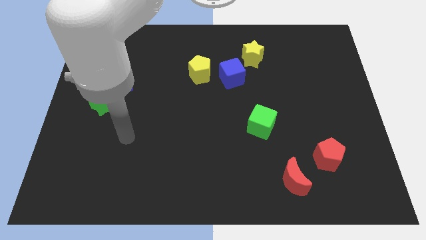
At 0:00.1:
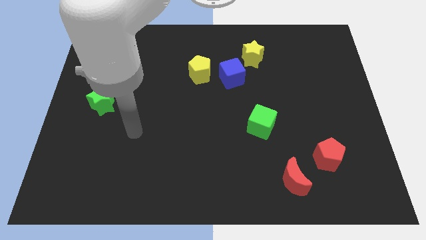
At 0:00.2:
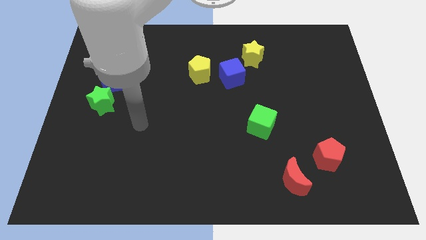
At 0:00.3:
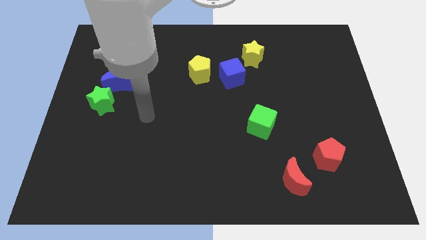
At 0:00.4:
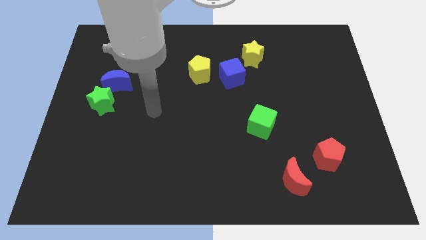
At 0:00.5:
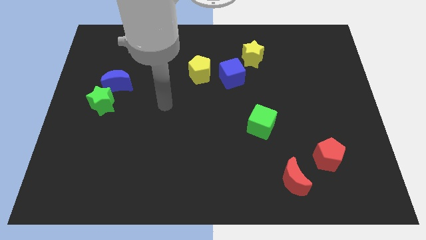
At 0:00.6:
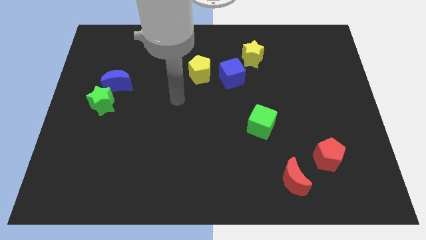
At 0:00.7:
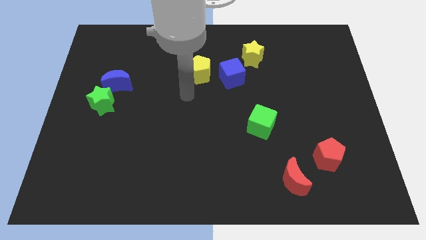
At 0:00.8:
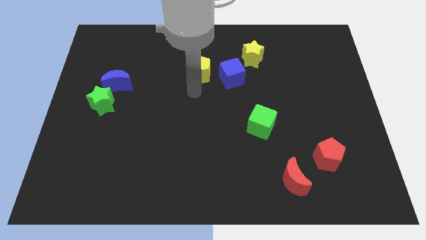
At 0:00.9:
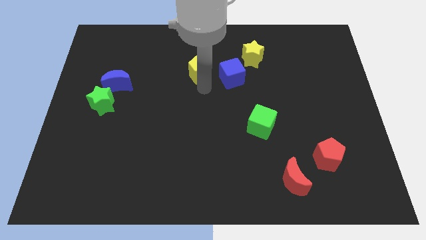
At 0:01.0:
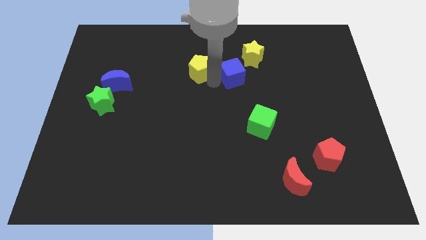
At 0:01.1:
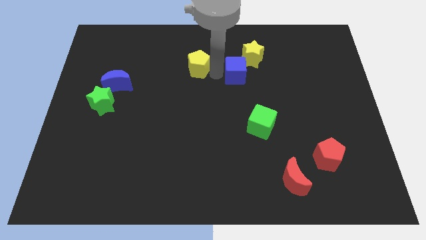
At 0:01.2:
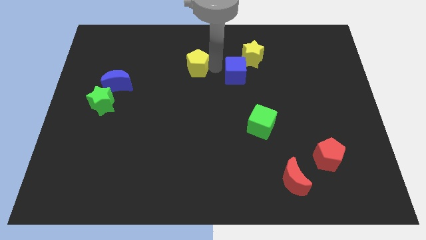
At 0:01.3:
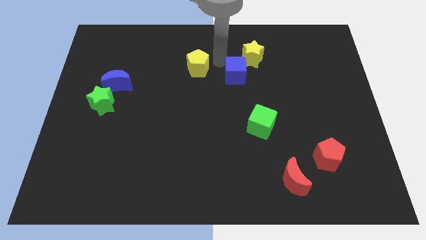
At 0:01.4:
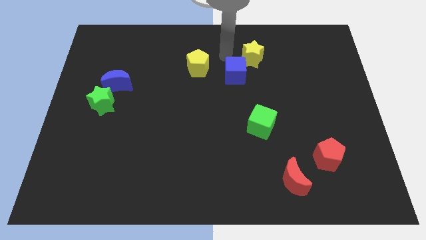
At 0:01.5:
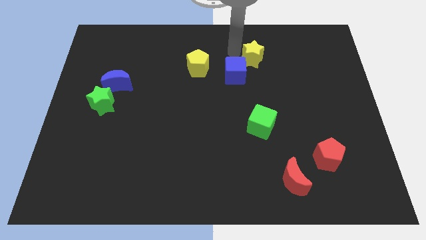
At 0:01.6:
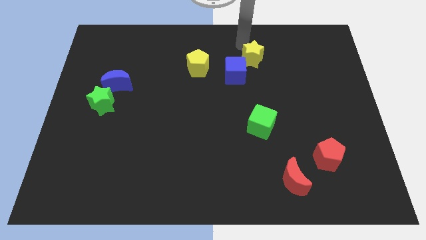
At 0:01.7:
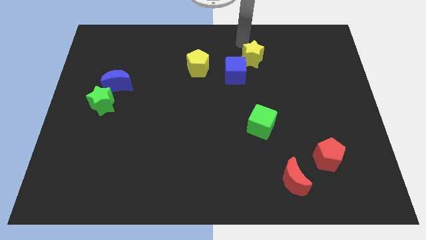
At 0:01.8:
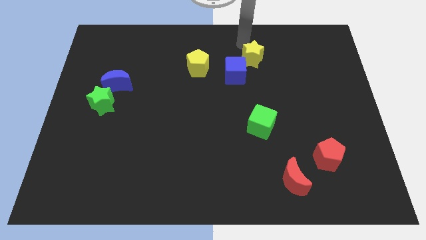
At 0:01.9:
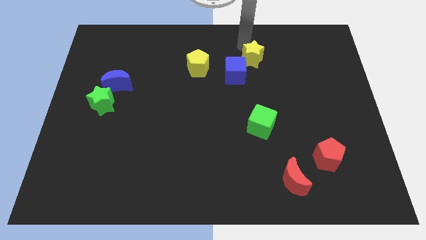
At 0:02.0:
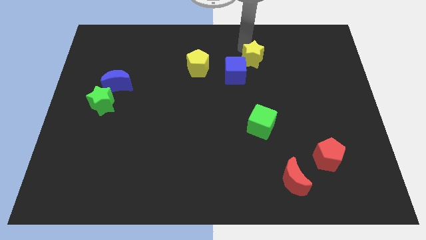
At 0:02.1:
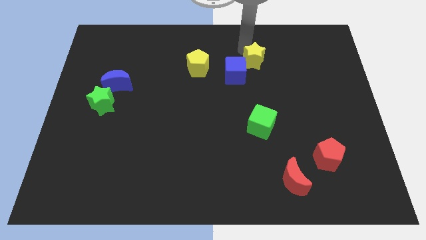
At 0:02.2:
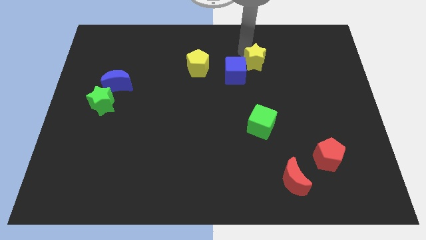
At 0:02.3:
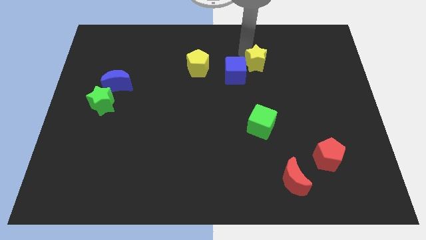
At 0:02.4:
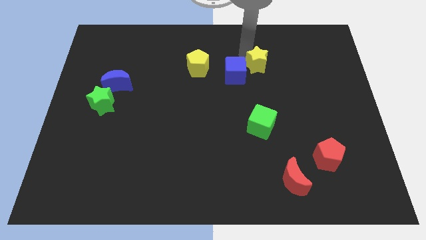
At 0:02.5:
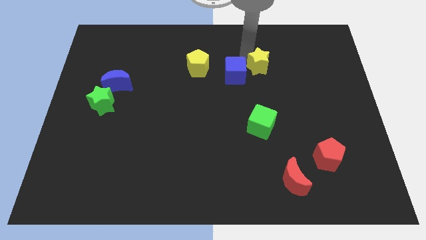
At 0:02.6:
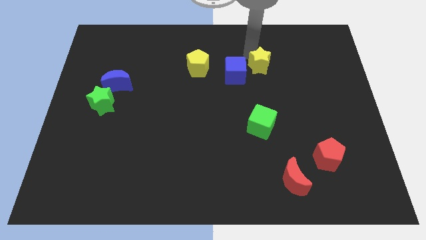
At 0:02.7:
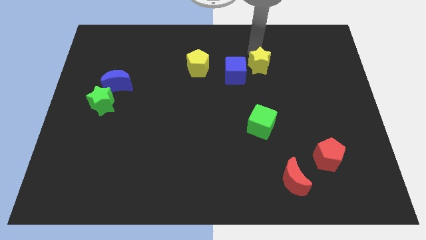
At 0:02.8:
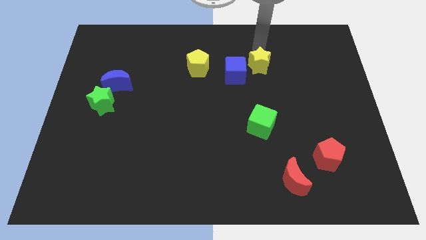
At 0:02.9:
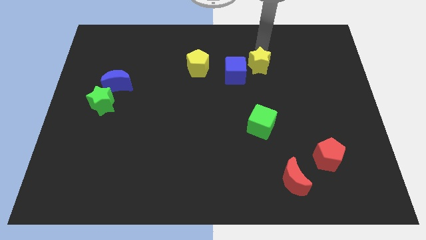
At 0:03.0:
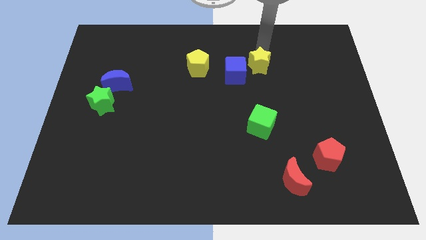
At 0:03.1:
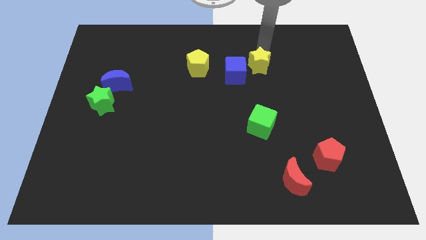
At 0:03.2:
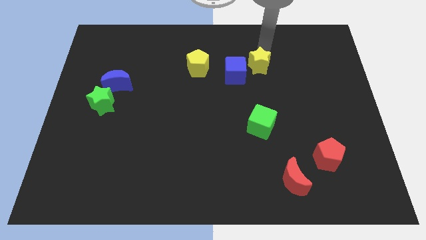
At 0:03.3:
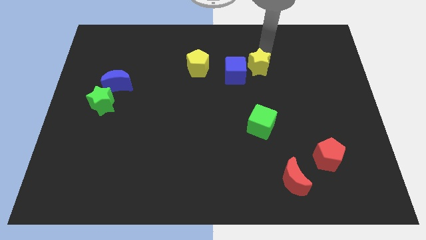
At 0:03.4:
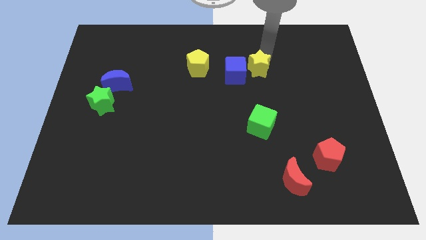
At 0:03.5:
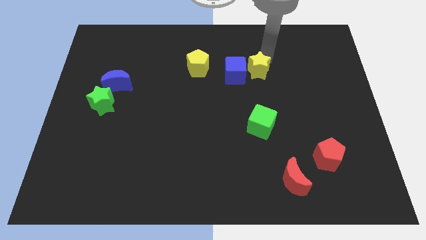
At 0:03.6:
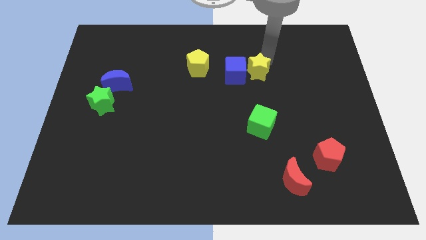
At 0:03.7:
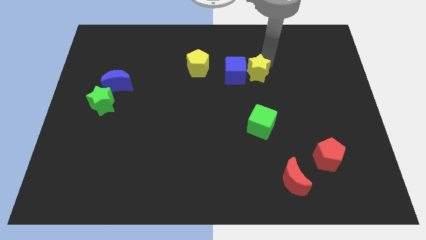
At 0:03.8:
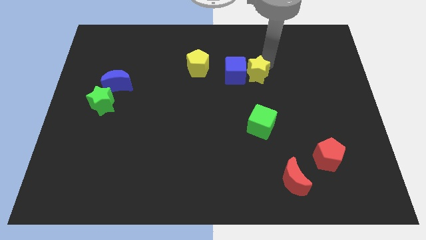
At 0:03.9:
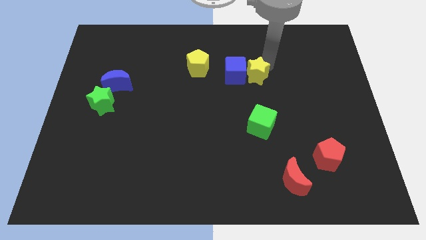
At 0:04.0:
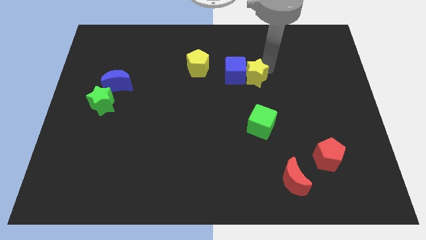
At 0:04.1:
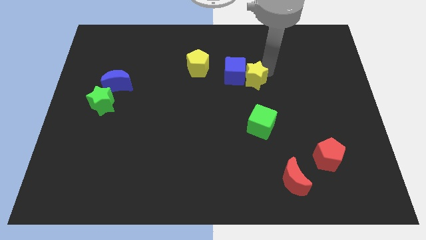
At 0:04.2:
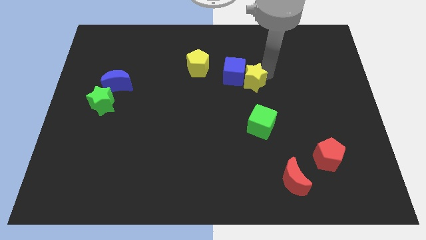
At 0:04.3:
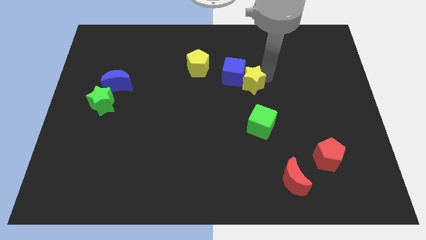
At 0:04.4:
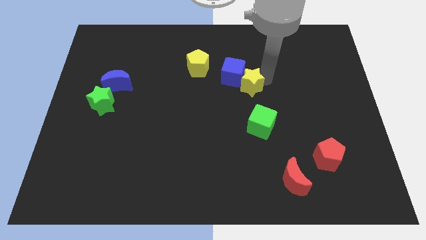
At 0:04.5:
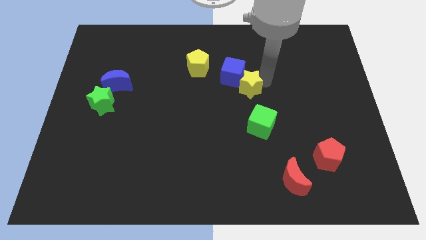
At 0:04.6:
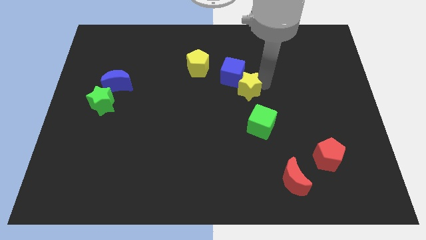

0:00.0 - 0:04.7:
move the yellow star a little bit diagonally down and to the left

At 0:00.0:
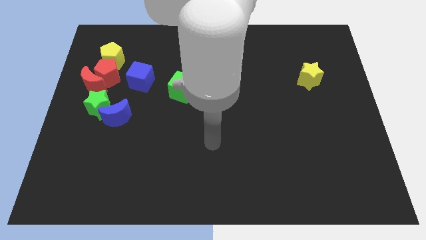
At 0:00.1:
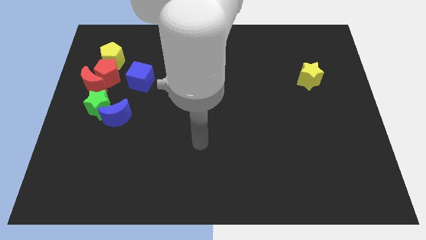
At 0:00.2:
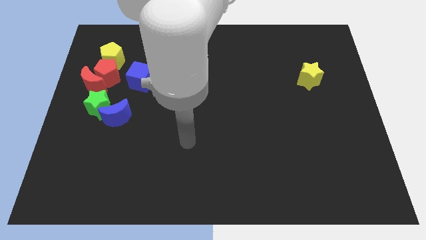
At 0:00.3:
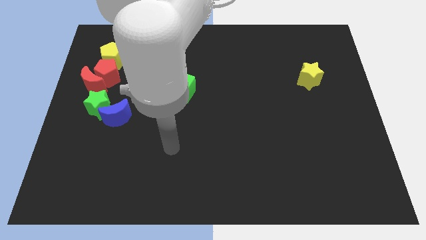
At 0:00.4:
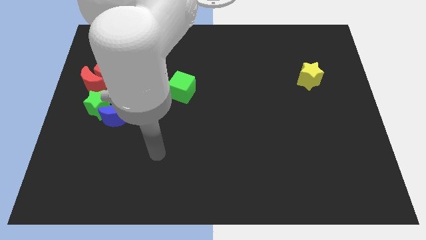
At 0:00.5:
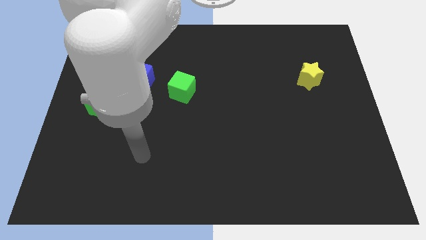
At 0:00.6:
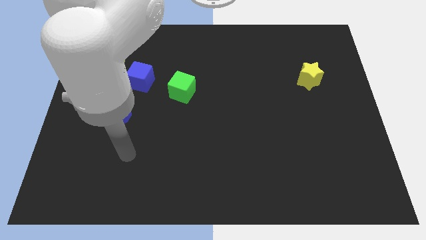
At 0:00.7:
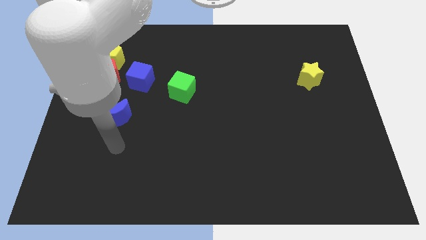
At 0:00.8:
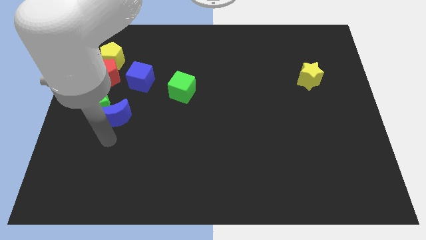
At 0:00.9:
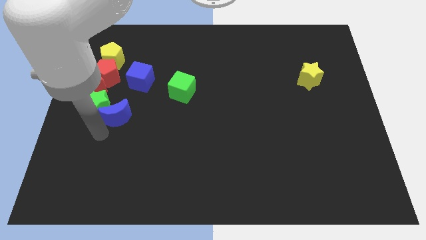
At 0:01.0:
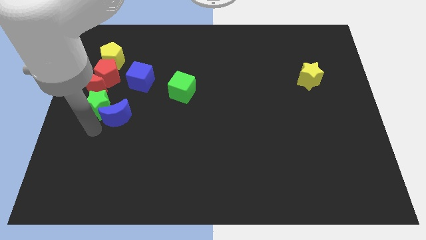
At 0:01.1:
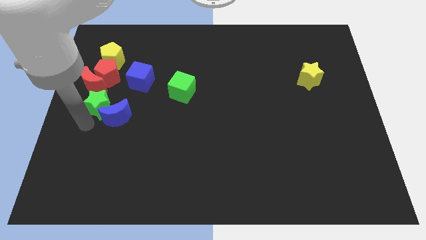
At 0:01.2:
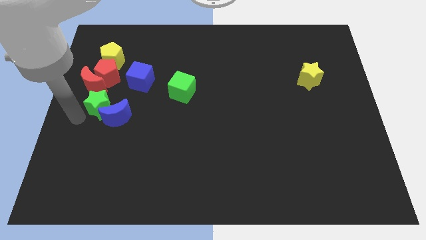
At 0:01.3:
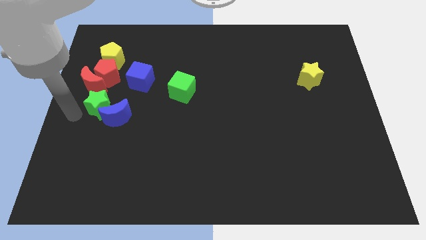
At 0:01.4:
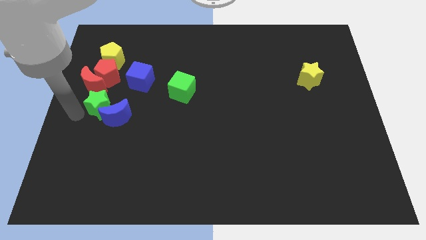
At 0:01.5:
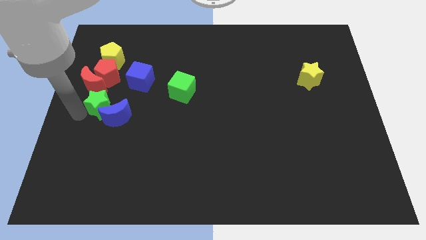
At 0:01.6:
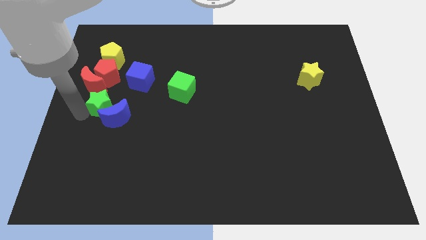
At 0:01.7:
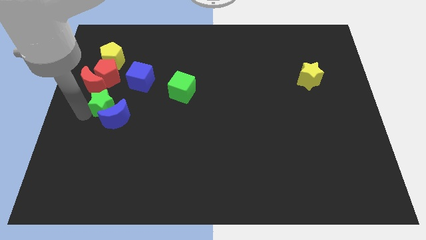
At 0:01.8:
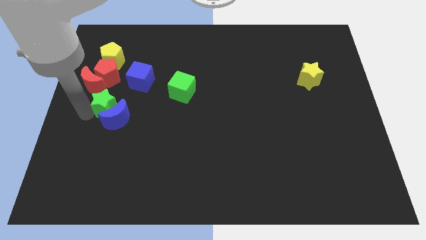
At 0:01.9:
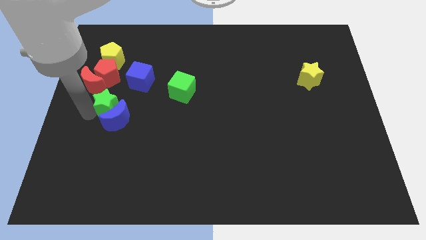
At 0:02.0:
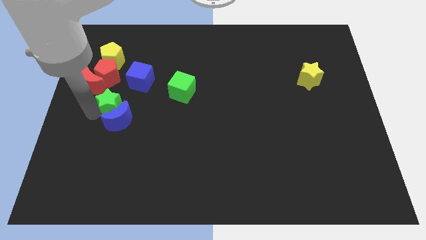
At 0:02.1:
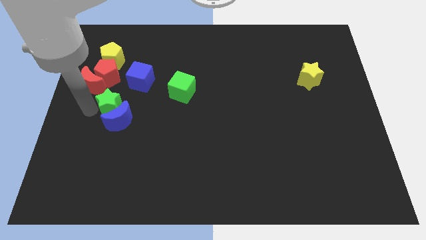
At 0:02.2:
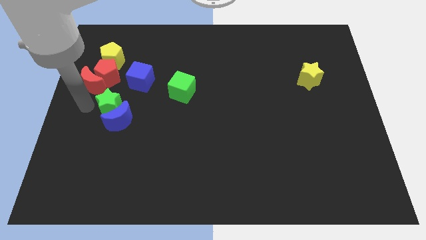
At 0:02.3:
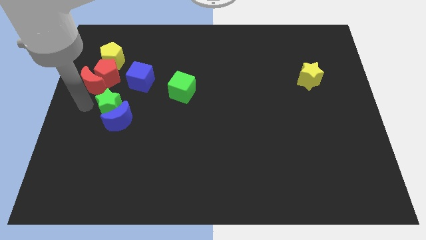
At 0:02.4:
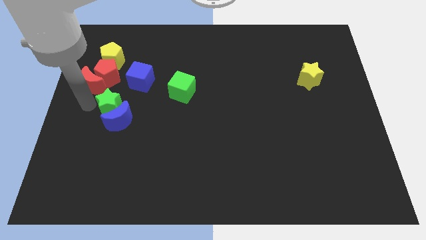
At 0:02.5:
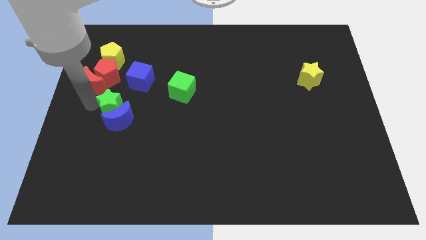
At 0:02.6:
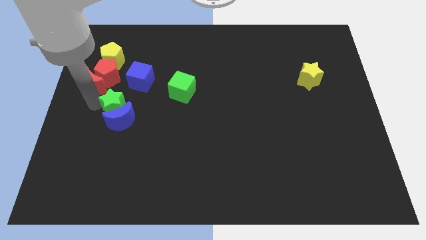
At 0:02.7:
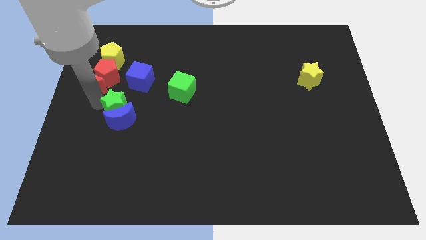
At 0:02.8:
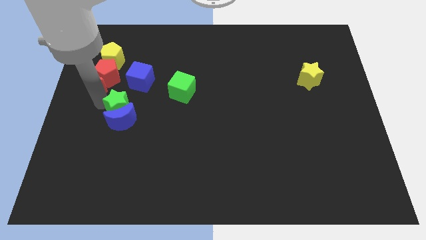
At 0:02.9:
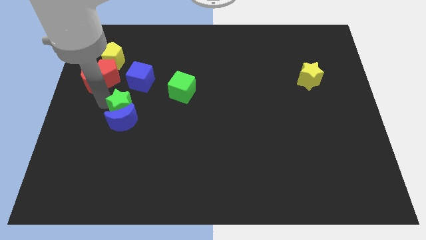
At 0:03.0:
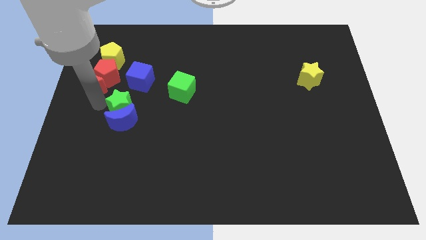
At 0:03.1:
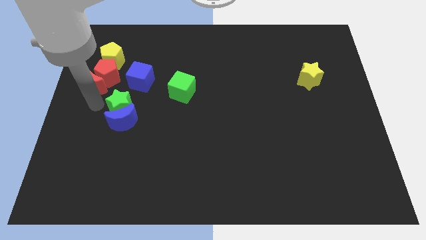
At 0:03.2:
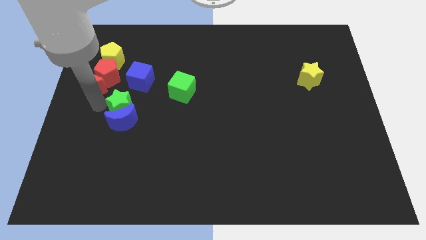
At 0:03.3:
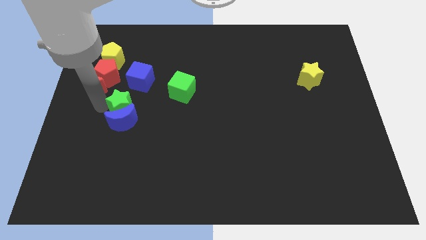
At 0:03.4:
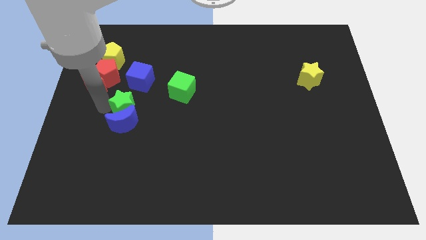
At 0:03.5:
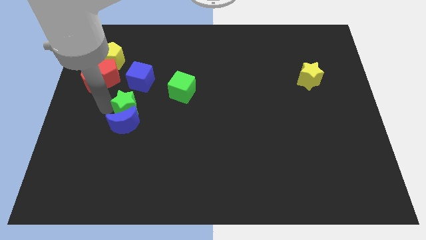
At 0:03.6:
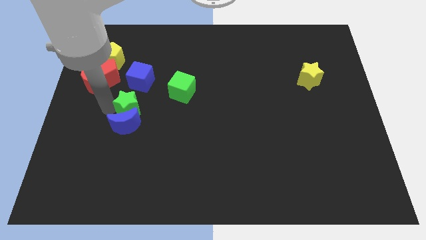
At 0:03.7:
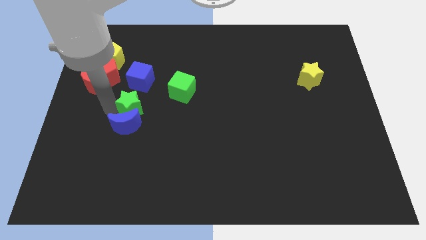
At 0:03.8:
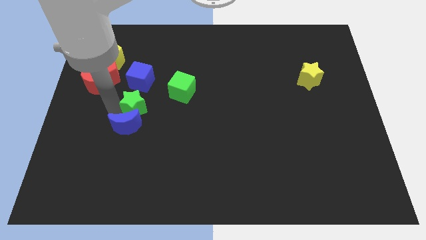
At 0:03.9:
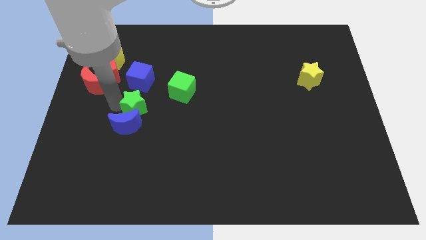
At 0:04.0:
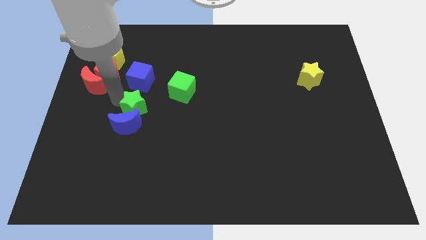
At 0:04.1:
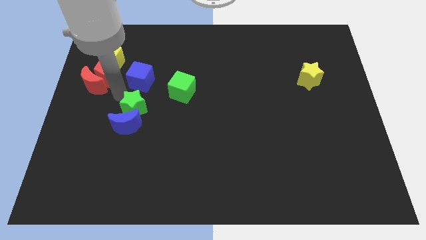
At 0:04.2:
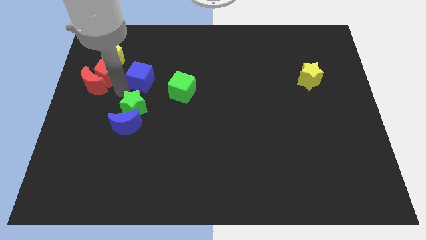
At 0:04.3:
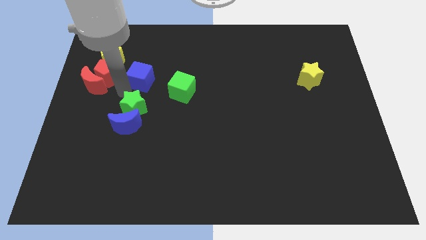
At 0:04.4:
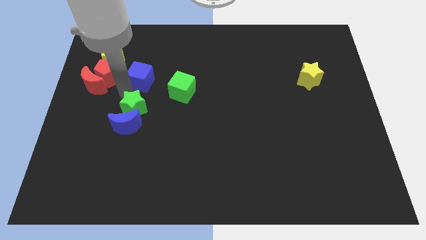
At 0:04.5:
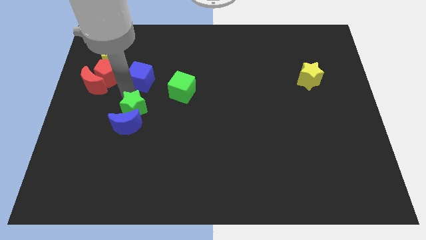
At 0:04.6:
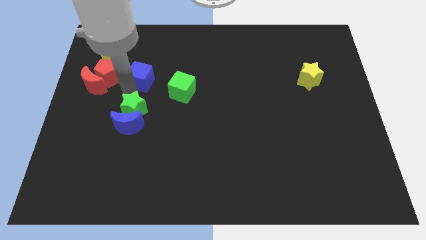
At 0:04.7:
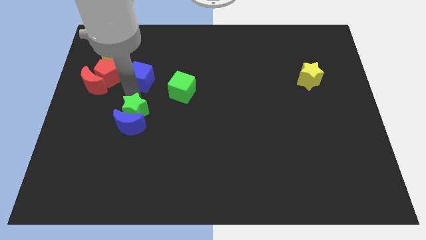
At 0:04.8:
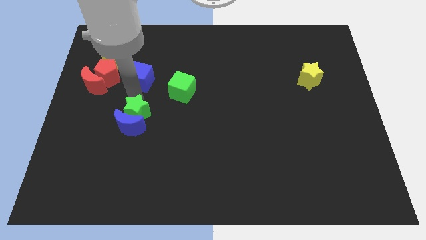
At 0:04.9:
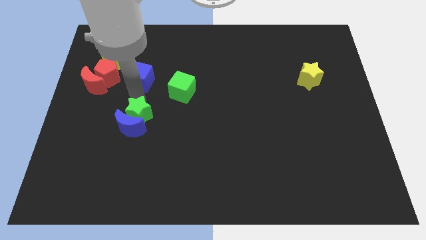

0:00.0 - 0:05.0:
push the green star a bit down and right
